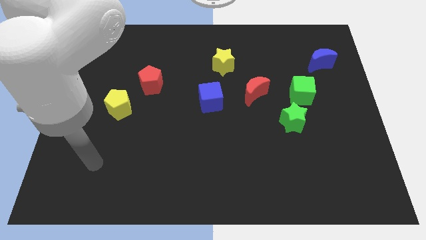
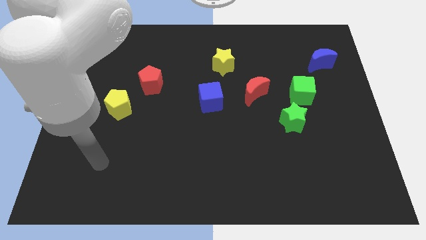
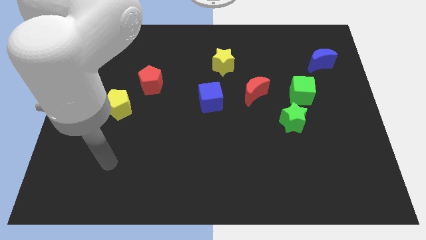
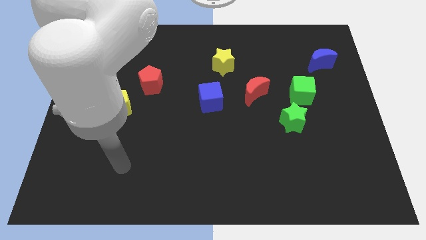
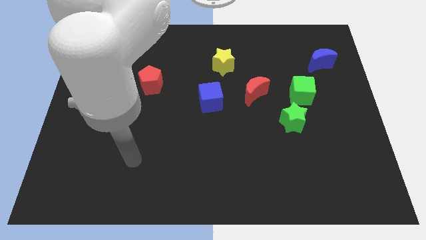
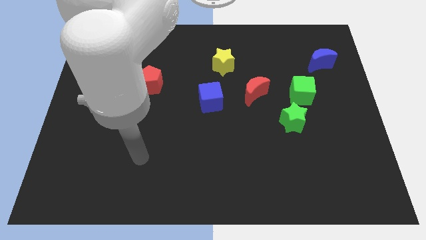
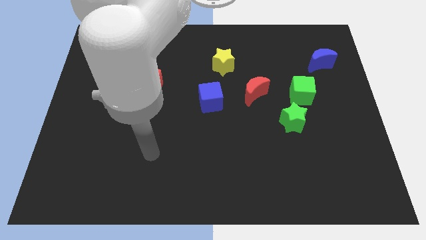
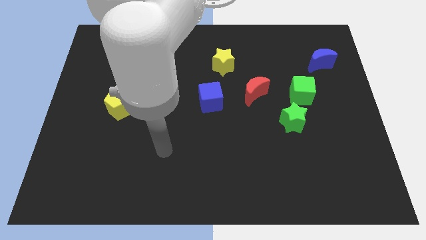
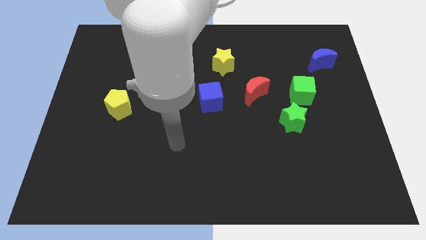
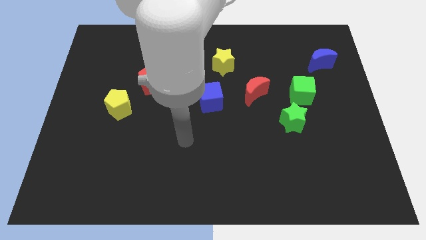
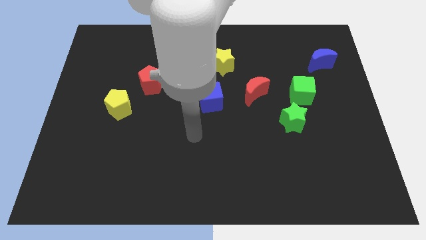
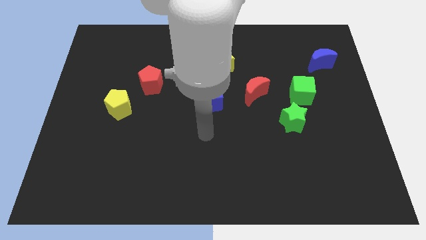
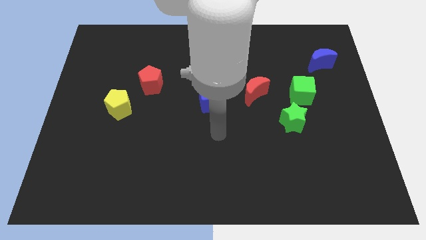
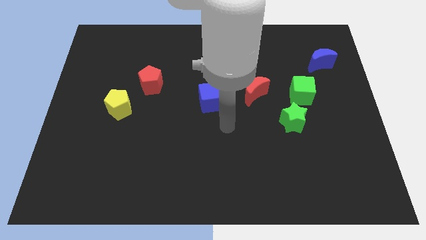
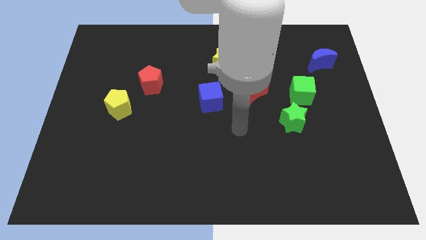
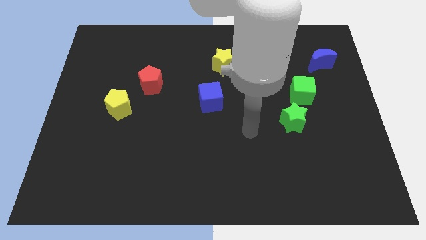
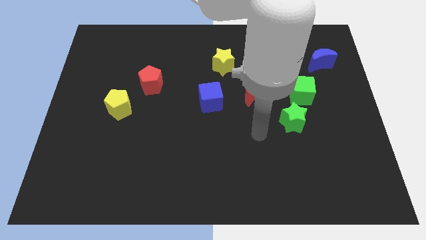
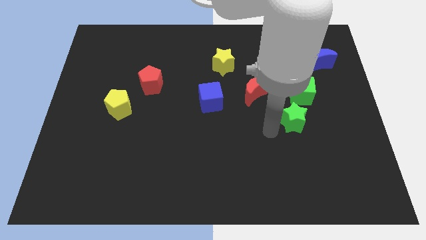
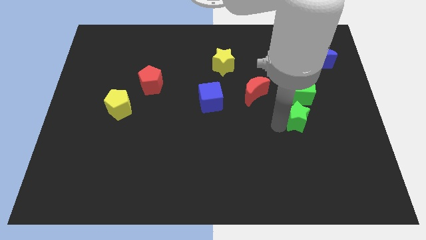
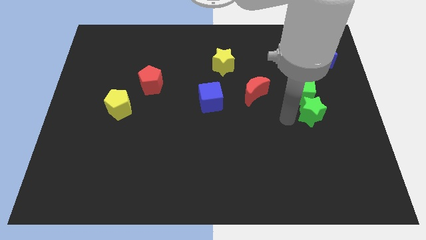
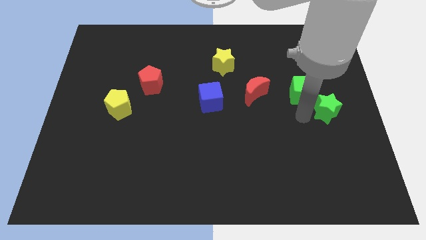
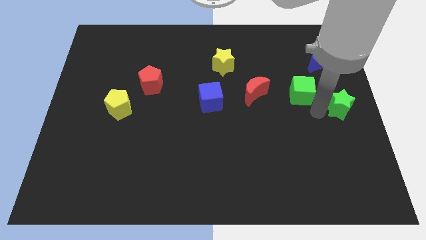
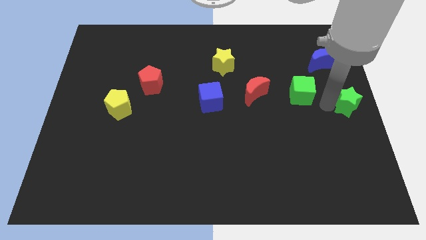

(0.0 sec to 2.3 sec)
move the green cube away from the green star

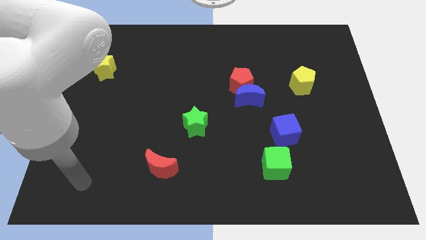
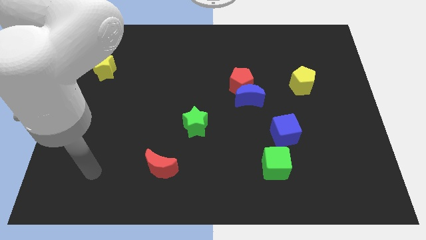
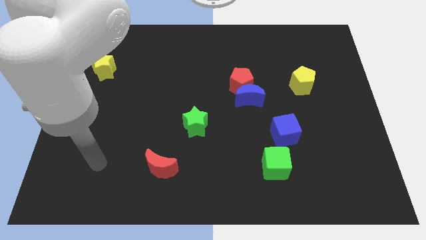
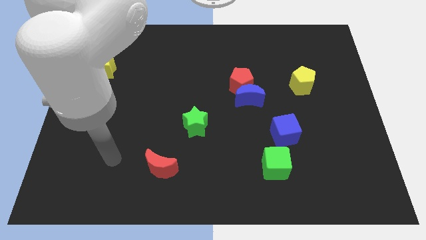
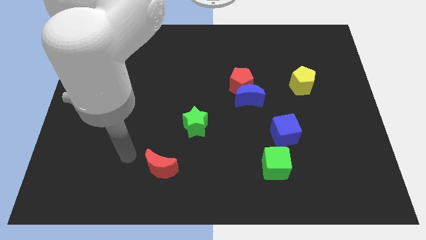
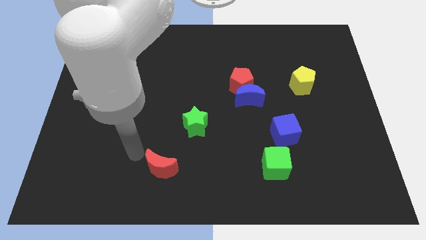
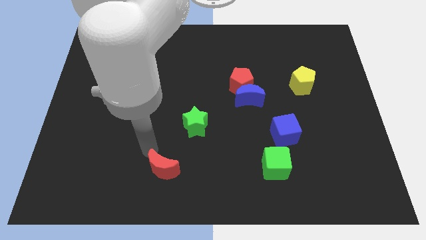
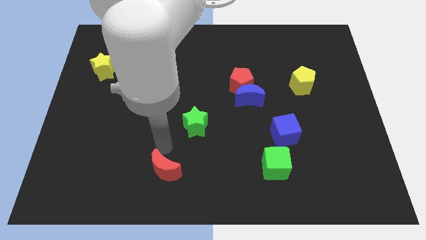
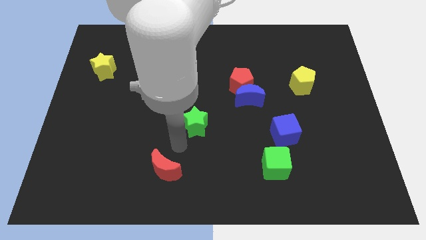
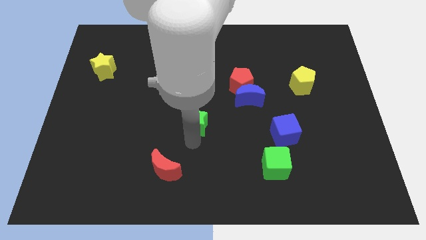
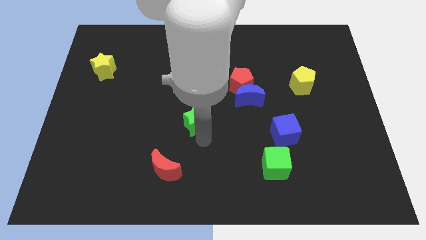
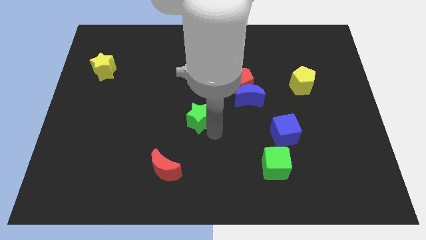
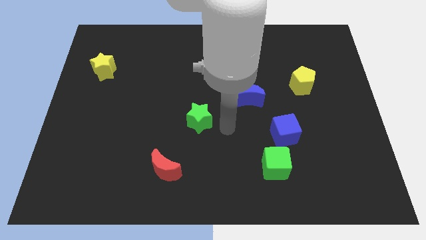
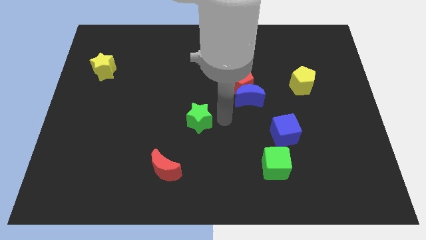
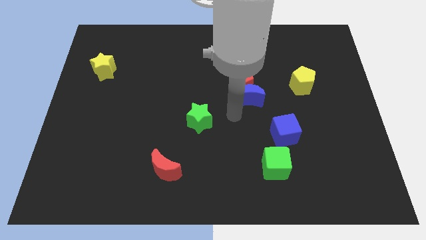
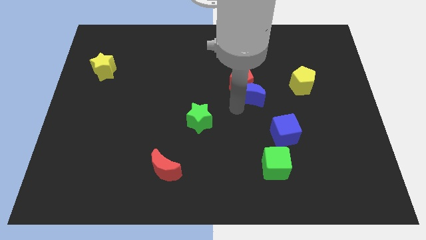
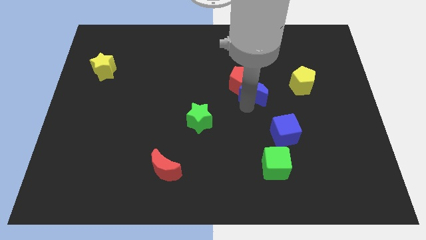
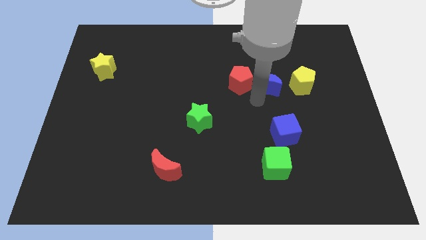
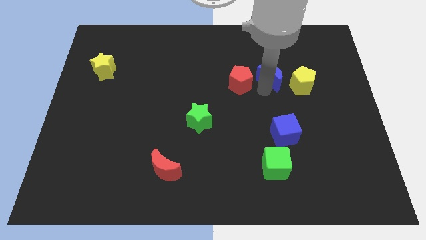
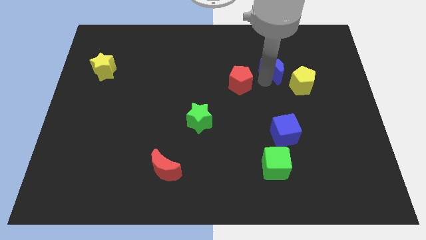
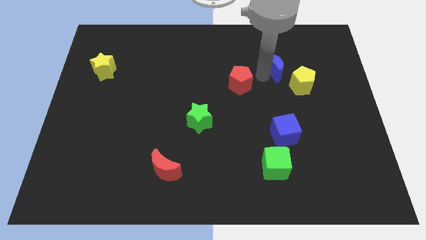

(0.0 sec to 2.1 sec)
move the red pentagon away from the blue moon

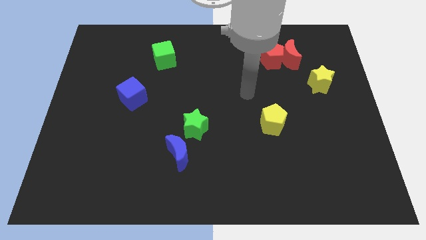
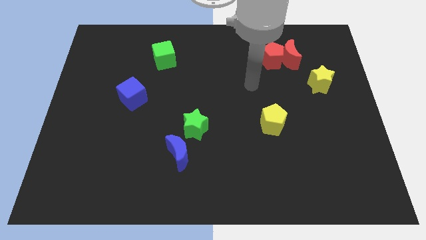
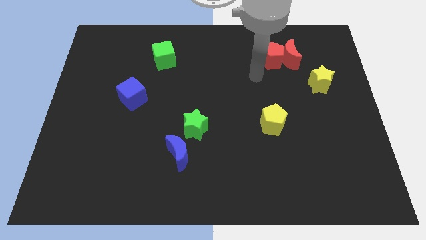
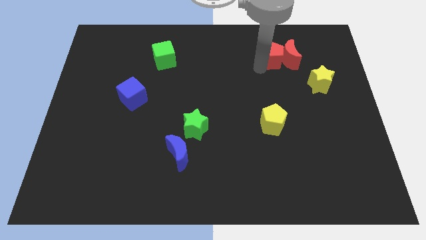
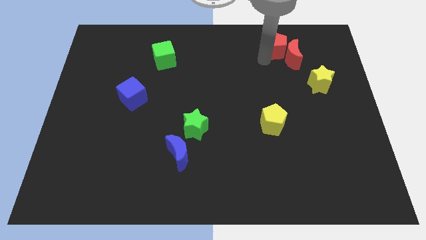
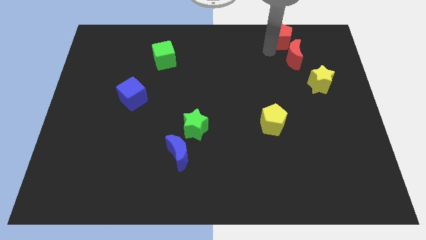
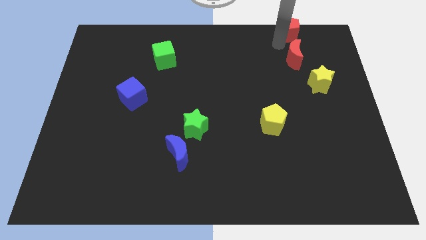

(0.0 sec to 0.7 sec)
pull the red moon apart from the red pentagon

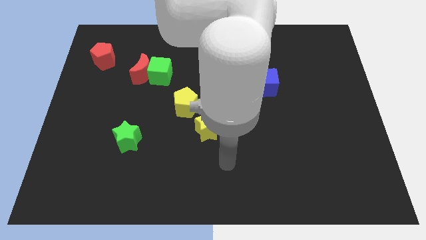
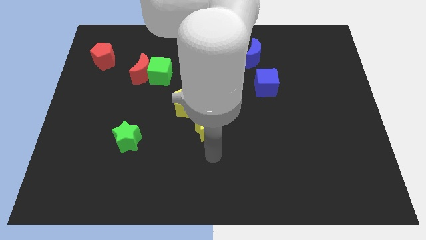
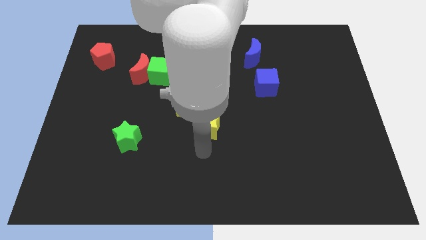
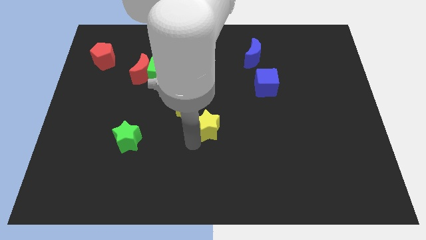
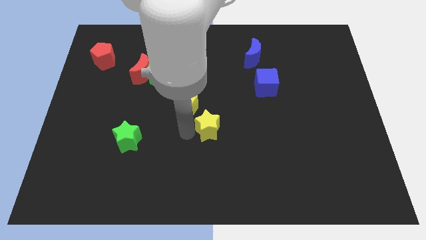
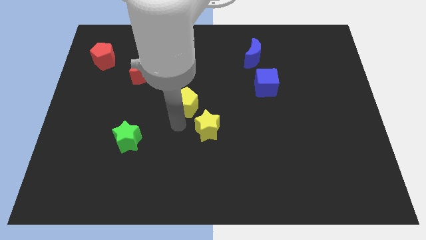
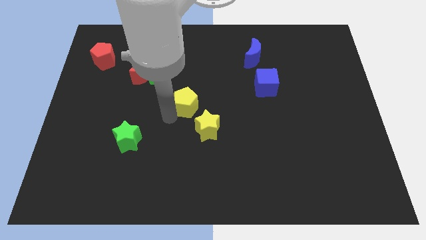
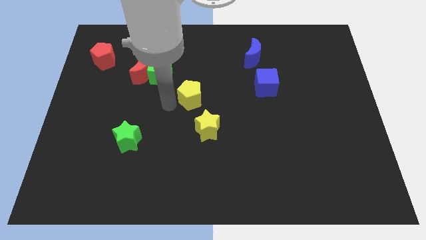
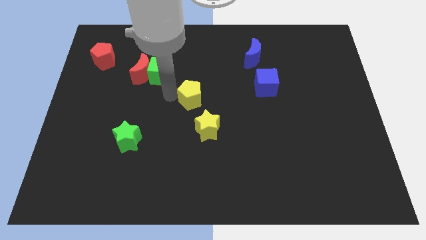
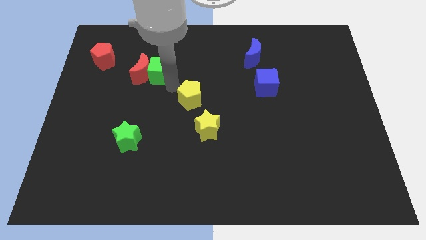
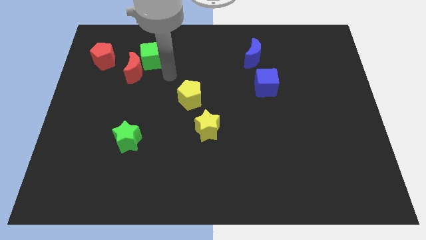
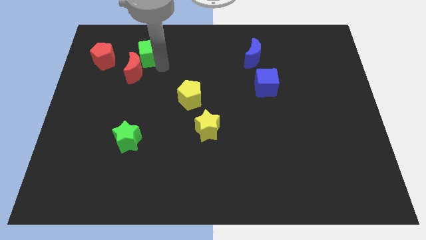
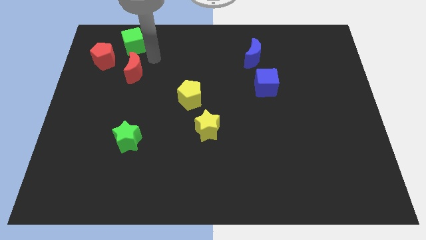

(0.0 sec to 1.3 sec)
separate the red moon from the green cube

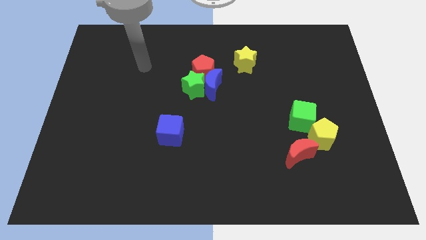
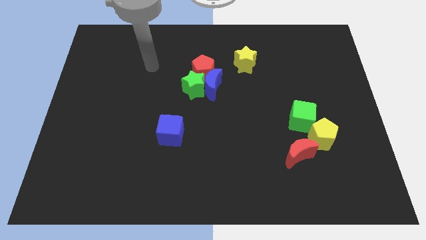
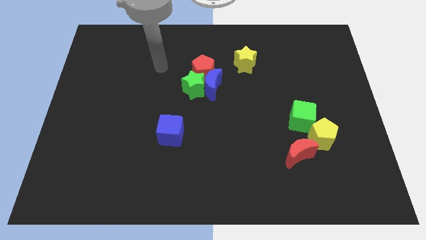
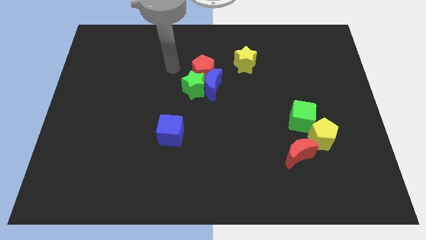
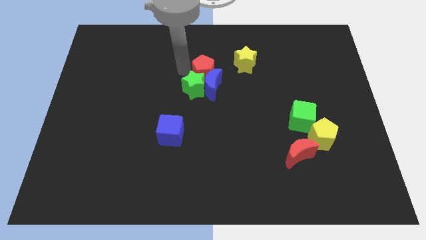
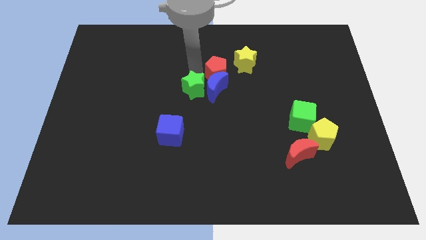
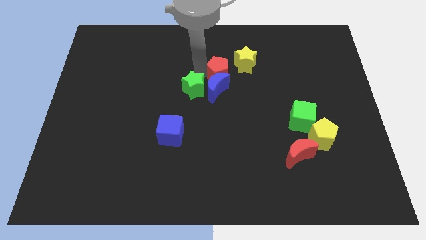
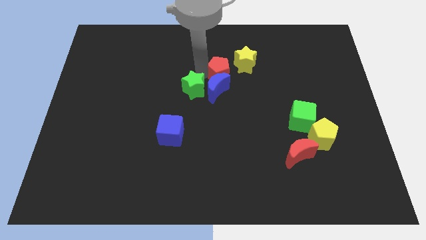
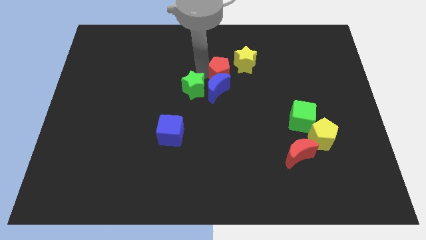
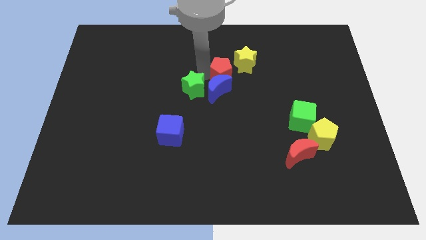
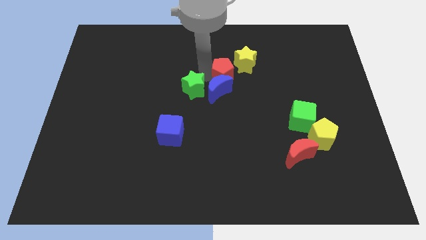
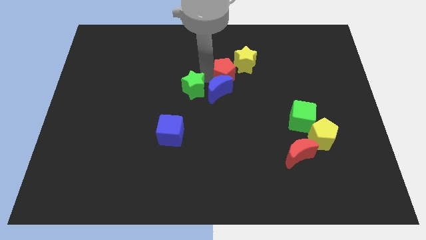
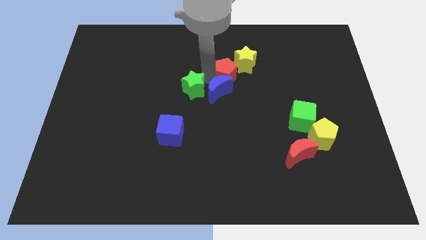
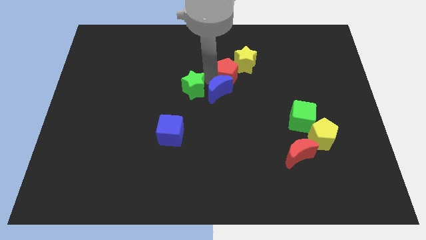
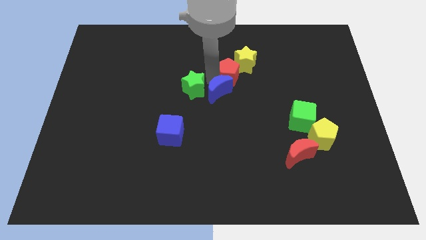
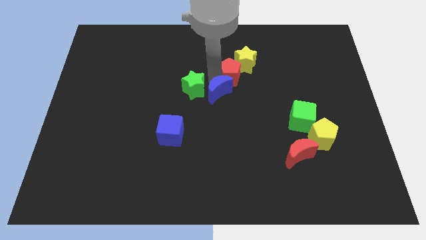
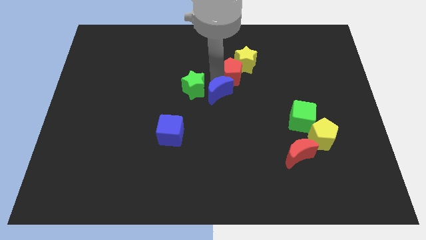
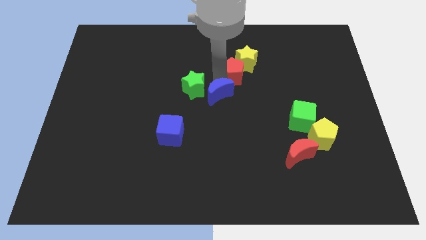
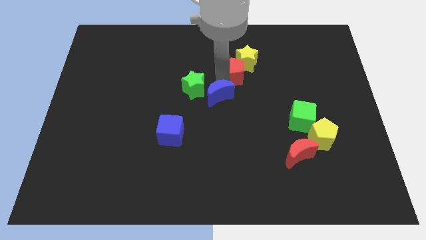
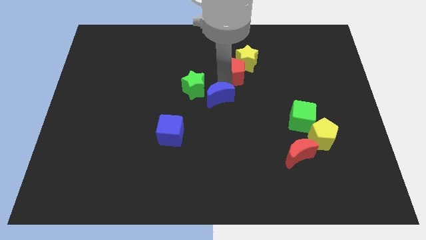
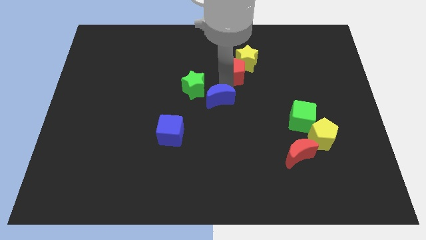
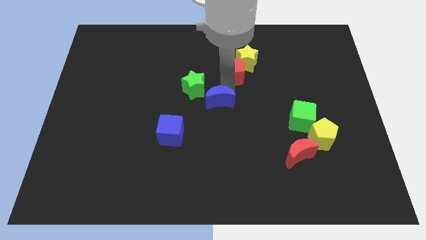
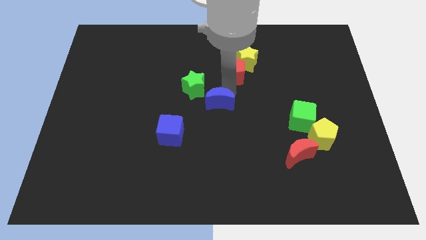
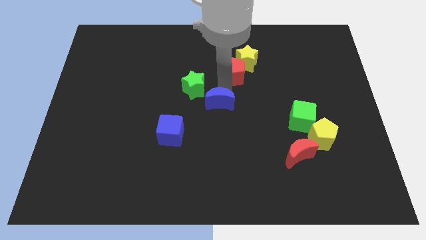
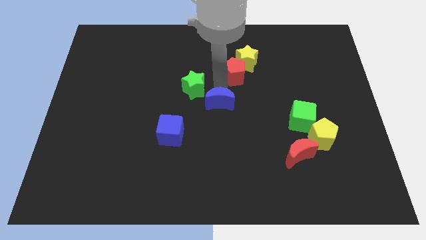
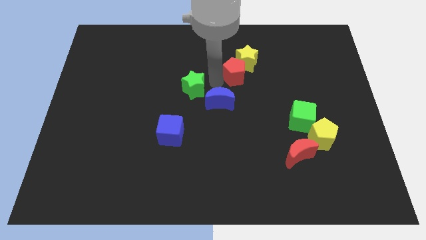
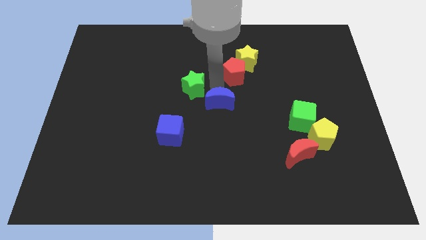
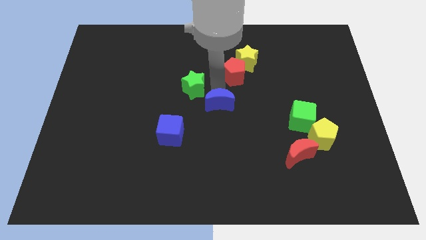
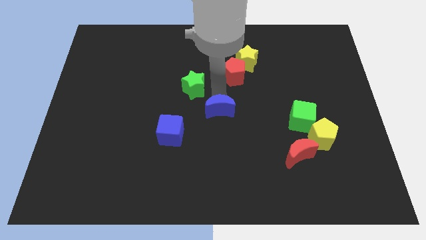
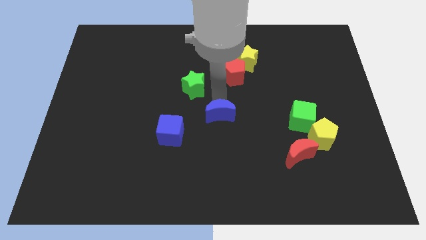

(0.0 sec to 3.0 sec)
separate the blue moon from the green star and red pentagon
